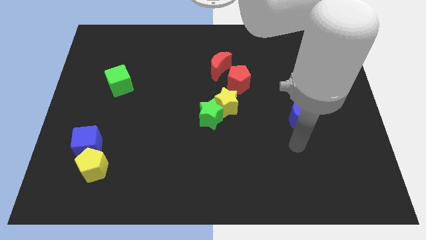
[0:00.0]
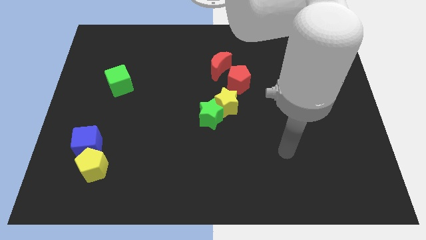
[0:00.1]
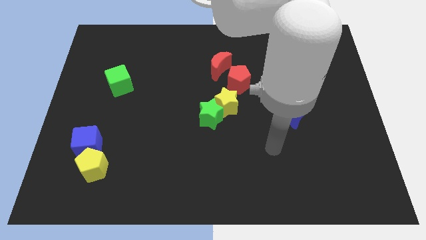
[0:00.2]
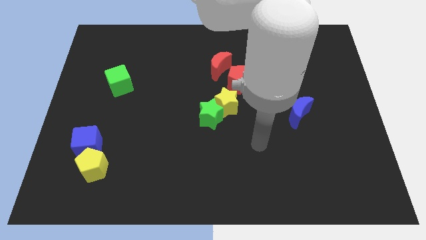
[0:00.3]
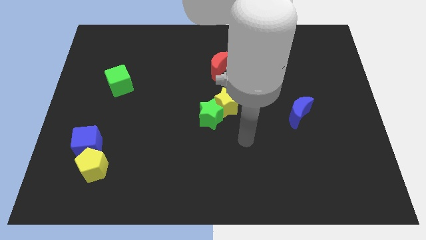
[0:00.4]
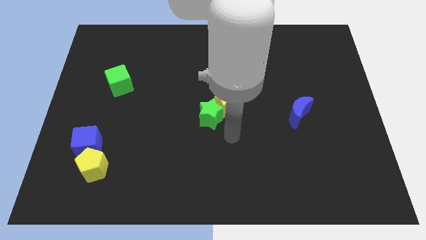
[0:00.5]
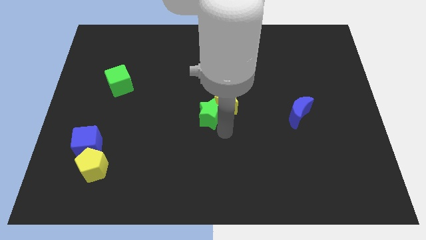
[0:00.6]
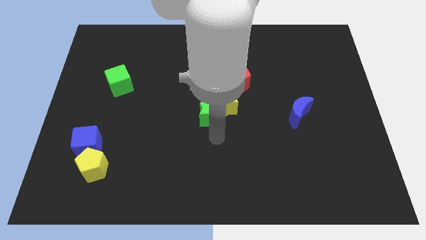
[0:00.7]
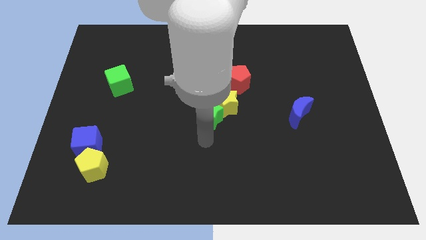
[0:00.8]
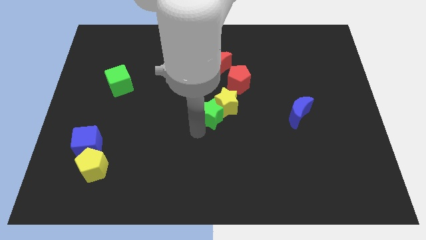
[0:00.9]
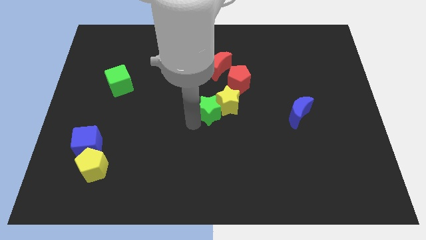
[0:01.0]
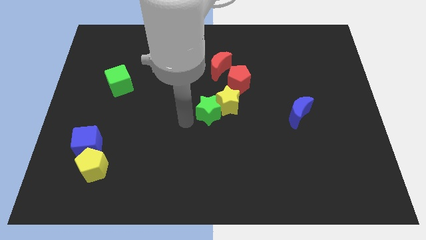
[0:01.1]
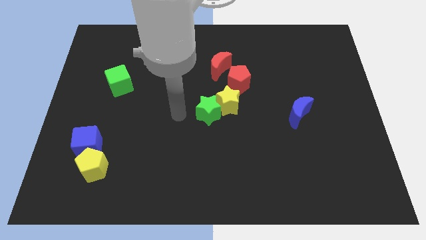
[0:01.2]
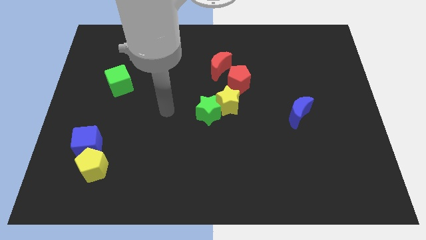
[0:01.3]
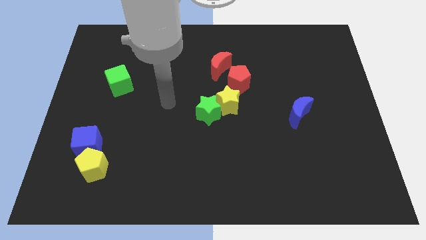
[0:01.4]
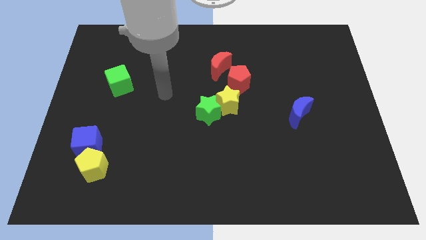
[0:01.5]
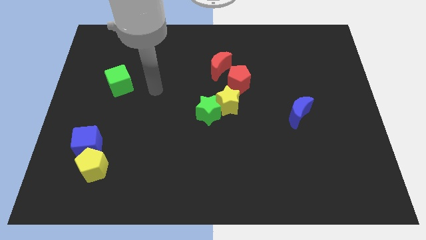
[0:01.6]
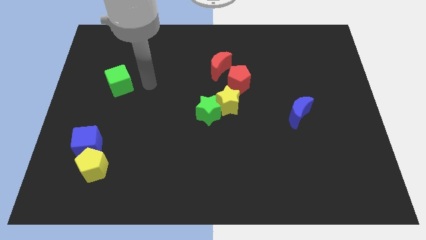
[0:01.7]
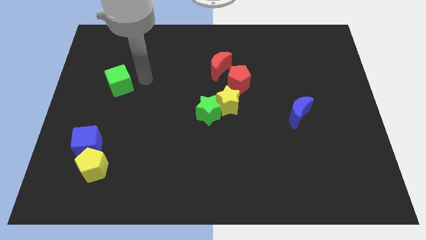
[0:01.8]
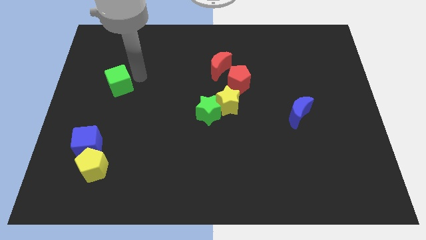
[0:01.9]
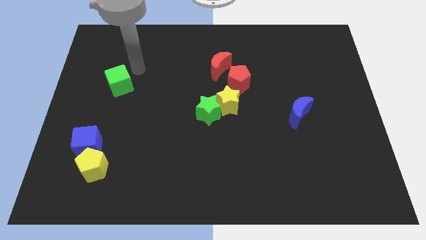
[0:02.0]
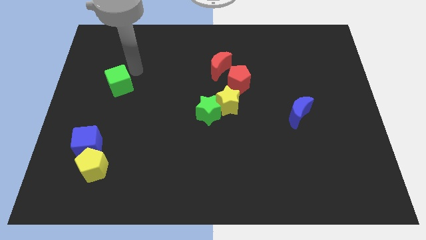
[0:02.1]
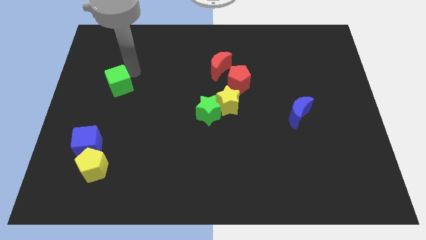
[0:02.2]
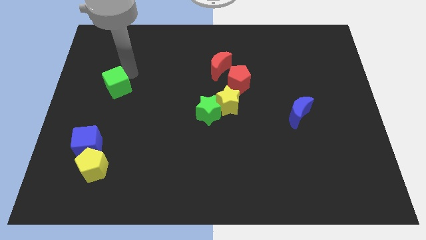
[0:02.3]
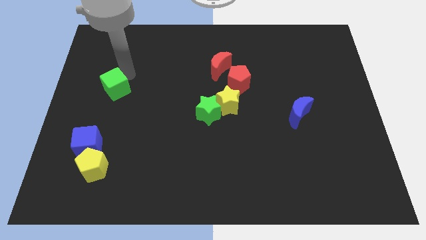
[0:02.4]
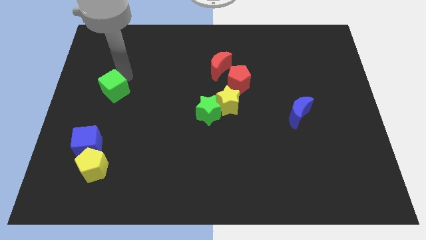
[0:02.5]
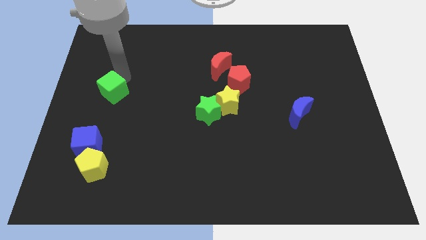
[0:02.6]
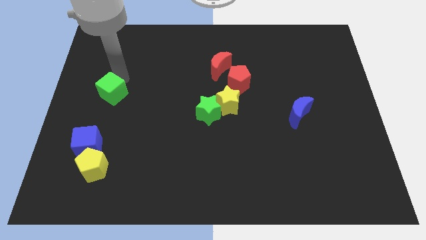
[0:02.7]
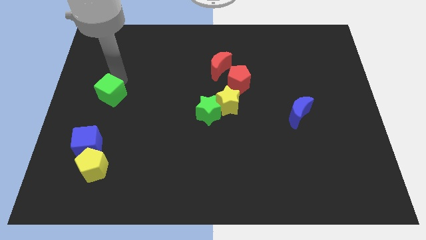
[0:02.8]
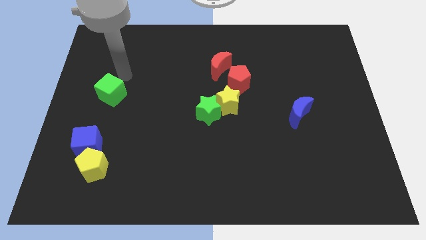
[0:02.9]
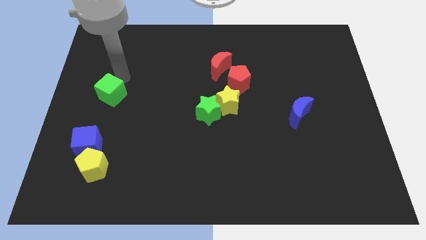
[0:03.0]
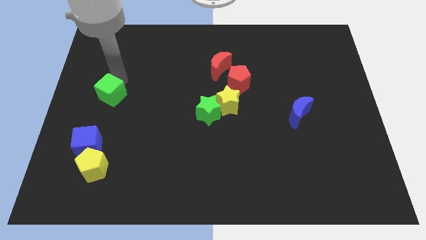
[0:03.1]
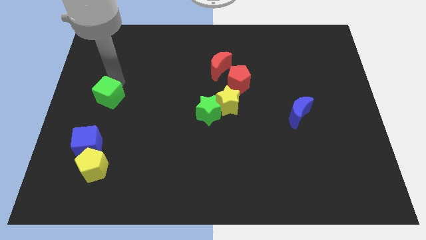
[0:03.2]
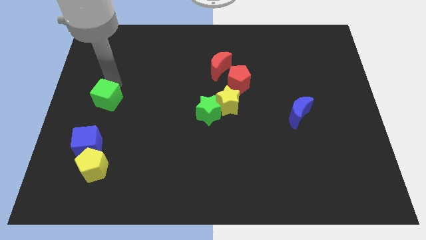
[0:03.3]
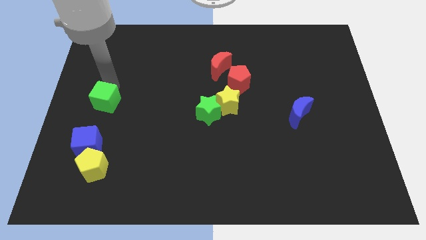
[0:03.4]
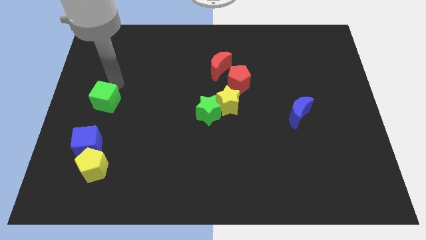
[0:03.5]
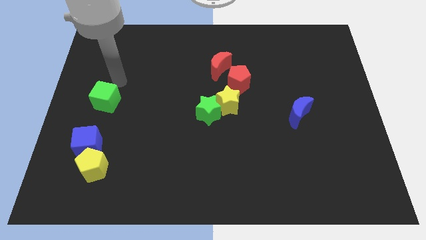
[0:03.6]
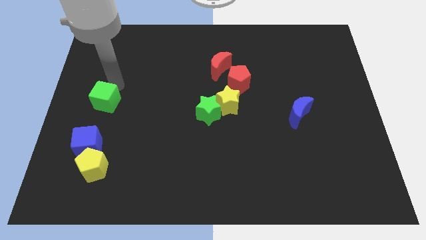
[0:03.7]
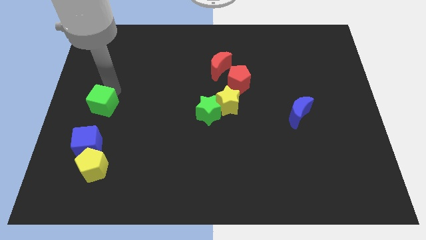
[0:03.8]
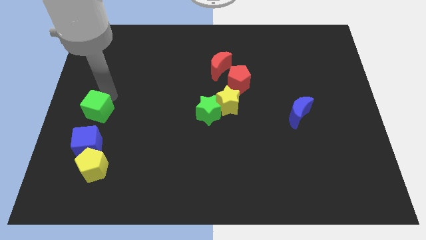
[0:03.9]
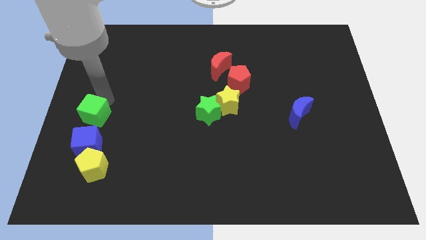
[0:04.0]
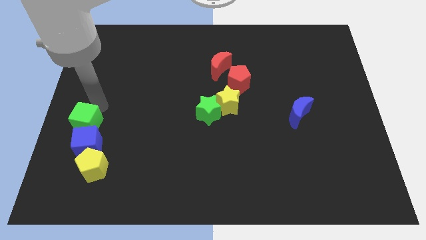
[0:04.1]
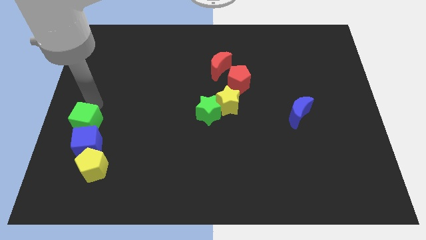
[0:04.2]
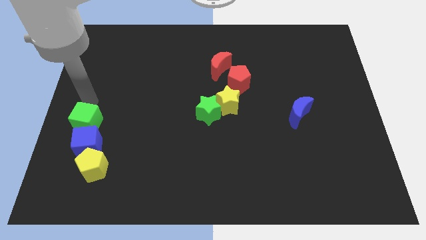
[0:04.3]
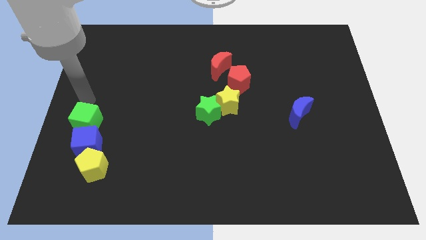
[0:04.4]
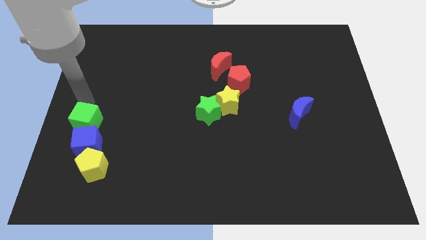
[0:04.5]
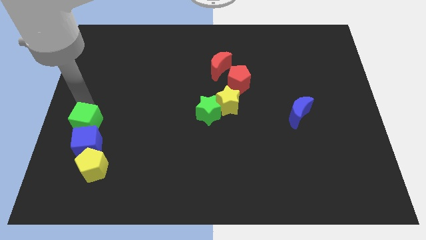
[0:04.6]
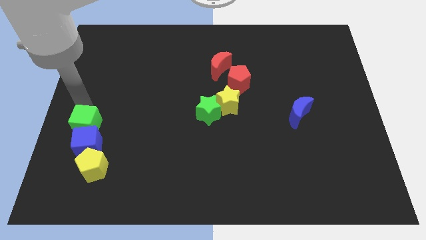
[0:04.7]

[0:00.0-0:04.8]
move the green cube close to the blue cube

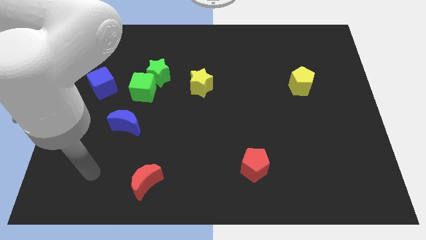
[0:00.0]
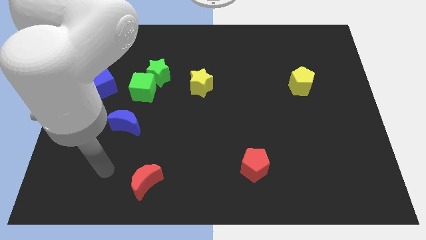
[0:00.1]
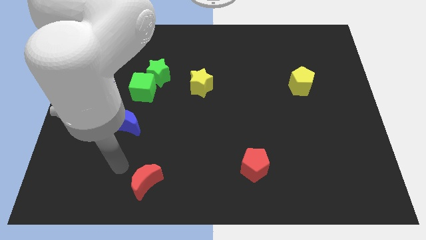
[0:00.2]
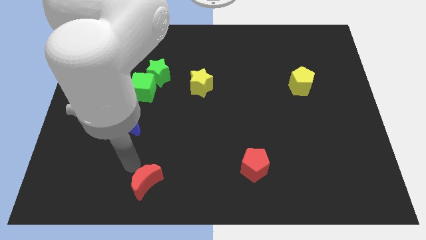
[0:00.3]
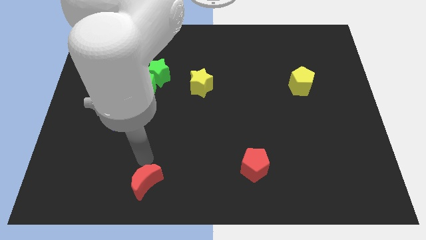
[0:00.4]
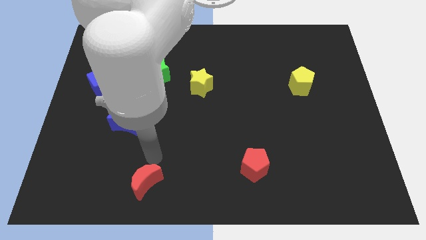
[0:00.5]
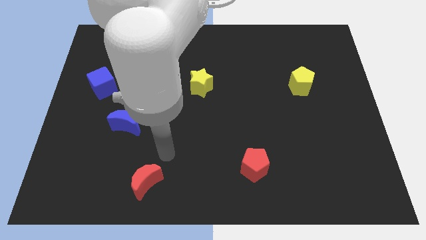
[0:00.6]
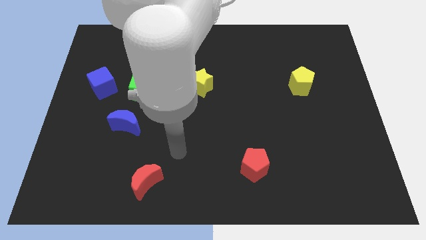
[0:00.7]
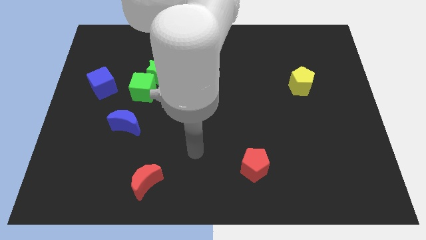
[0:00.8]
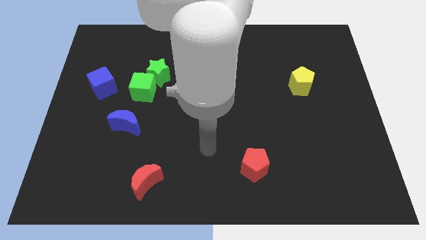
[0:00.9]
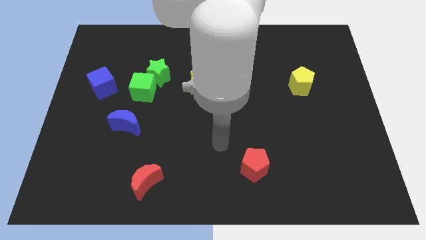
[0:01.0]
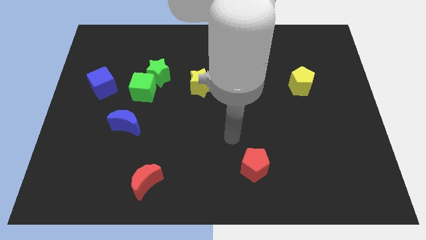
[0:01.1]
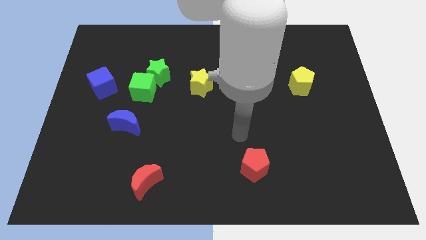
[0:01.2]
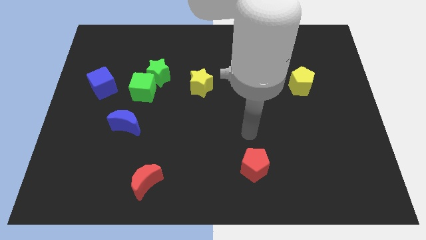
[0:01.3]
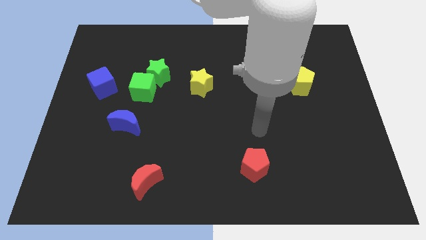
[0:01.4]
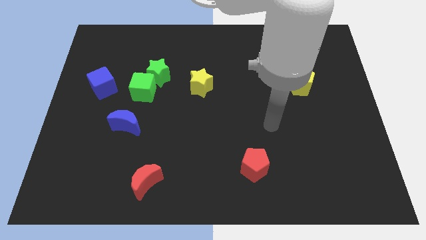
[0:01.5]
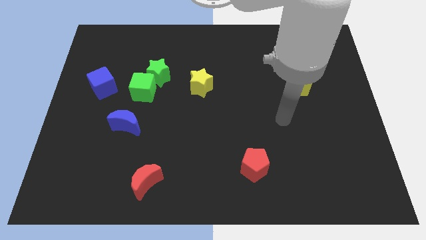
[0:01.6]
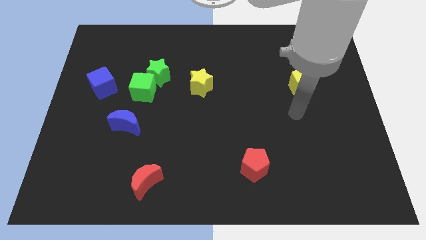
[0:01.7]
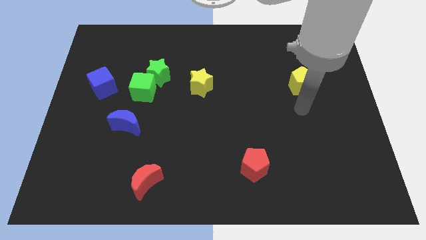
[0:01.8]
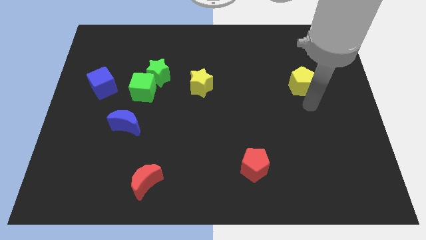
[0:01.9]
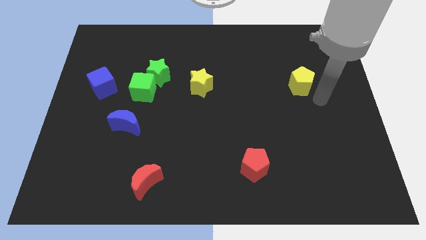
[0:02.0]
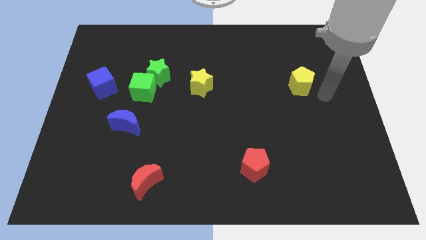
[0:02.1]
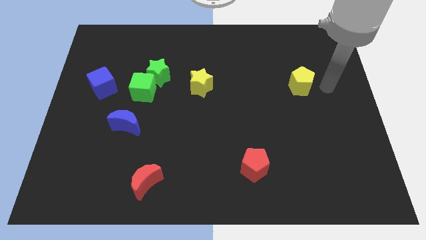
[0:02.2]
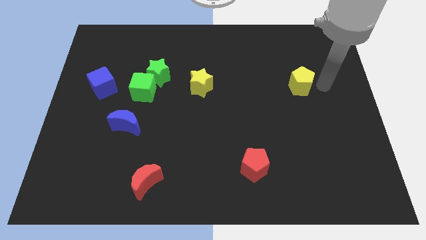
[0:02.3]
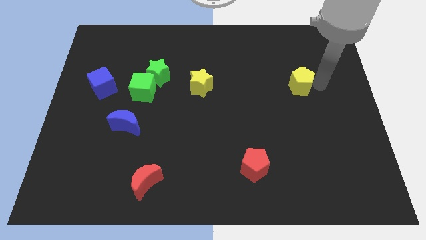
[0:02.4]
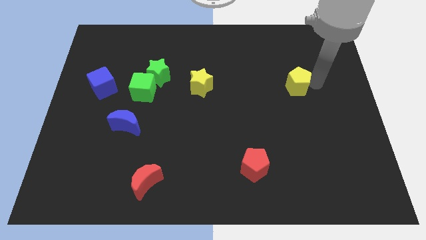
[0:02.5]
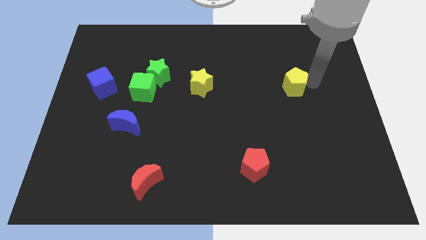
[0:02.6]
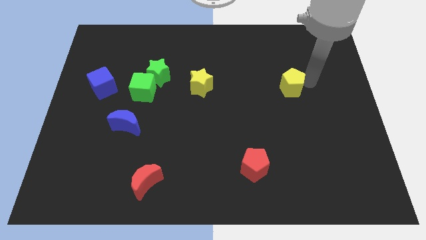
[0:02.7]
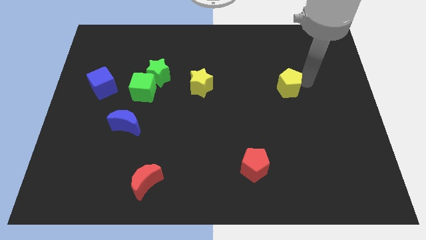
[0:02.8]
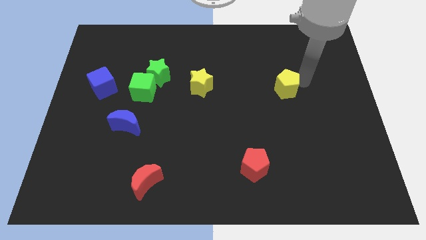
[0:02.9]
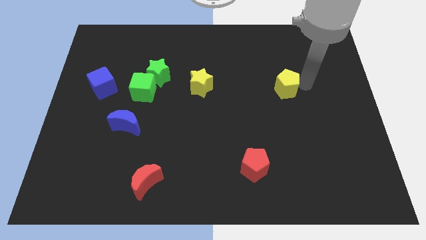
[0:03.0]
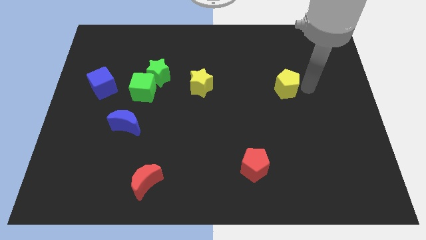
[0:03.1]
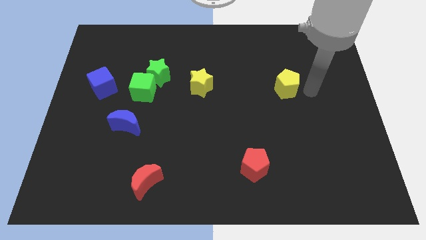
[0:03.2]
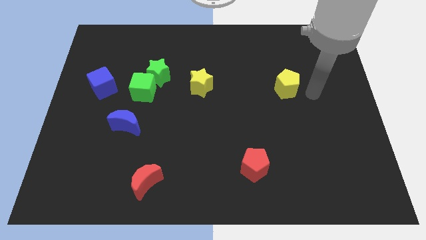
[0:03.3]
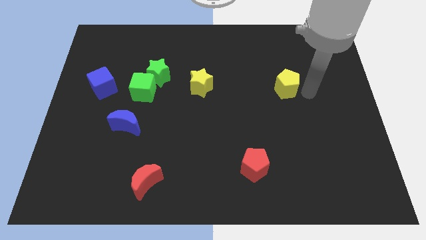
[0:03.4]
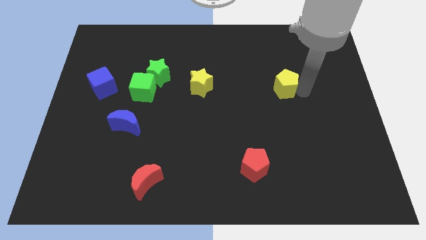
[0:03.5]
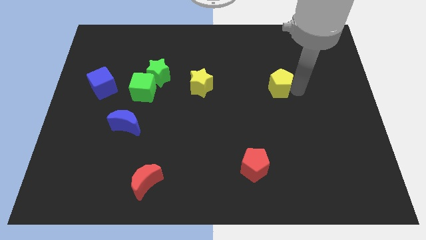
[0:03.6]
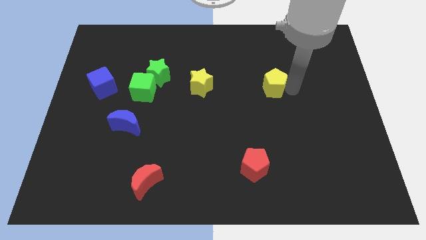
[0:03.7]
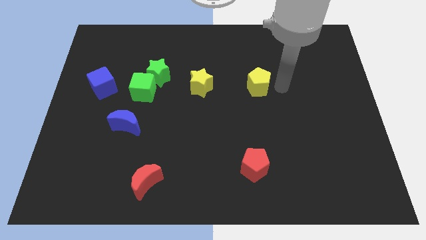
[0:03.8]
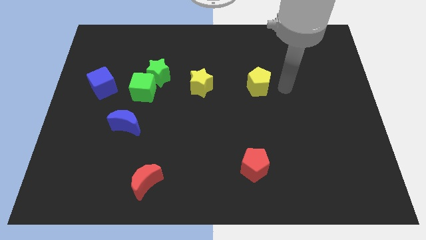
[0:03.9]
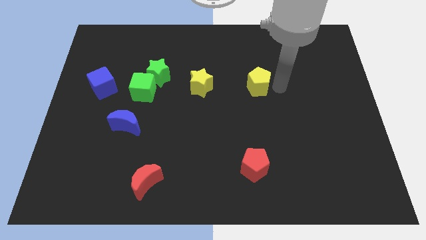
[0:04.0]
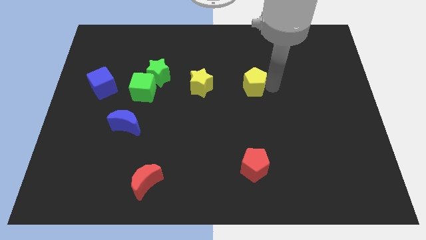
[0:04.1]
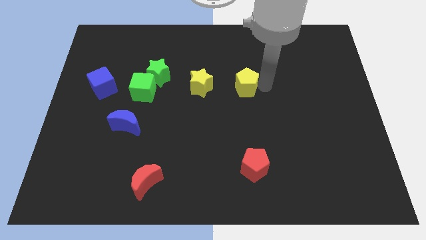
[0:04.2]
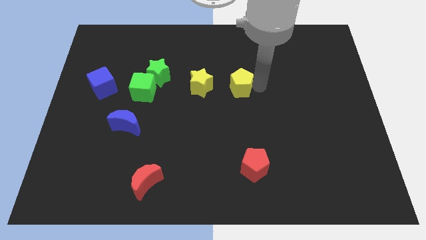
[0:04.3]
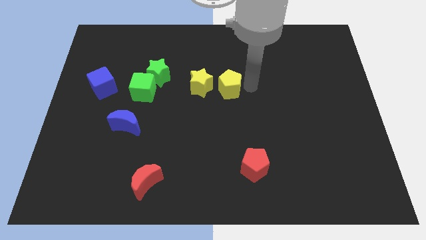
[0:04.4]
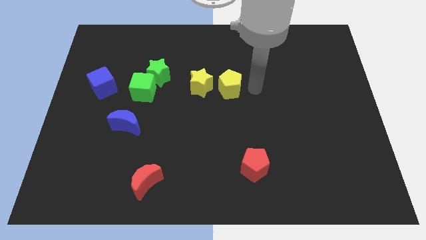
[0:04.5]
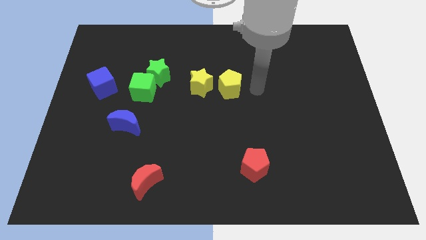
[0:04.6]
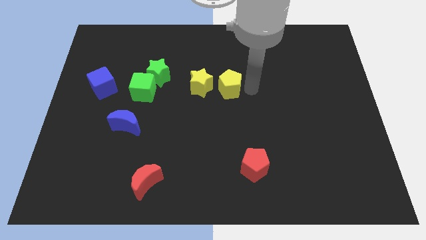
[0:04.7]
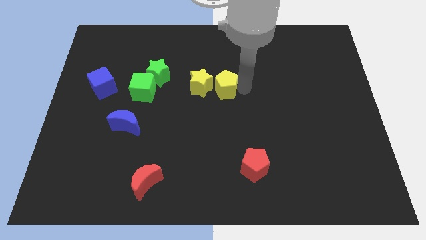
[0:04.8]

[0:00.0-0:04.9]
move the yellow pentagon to the yellow star
